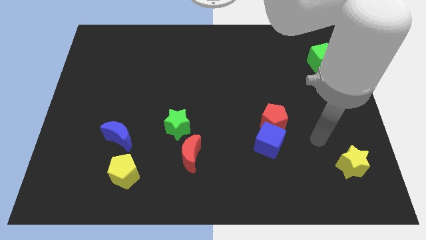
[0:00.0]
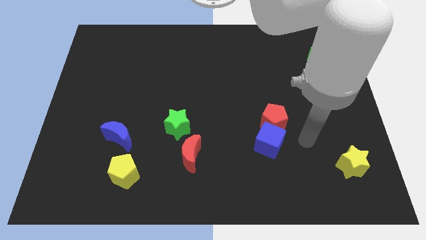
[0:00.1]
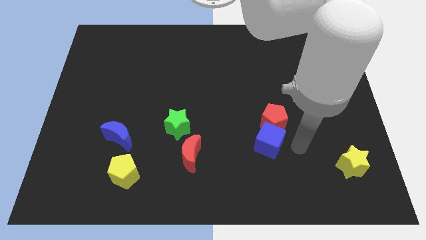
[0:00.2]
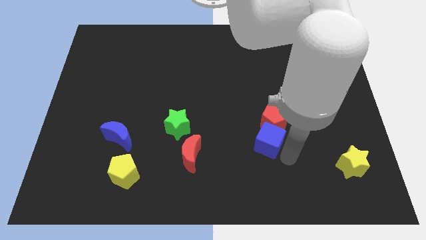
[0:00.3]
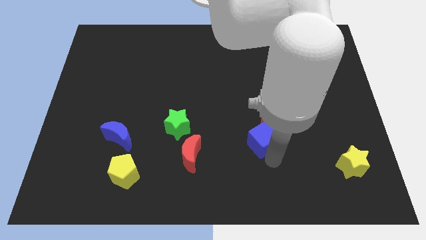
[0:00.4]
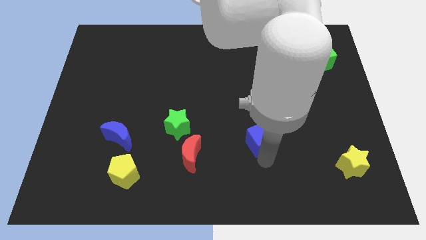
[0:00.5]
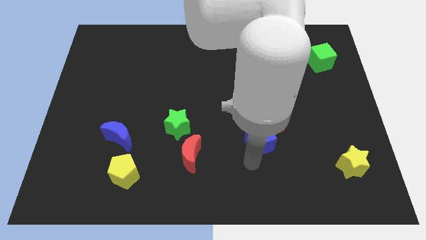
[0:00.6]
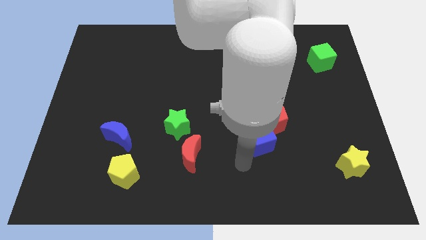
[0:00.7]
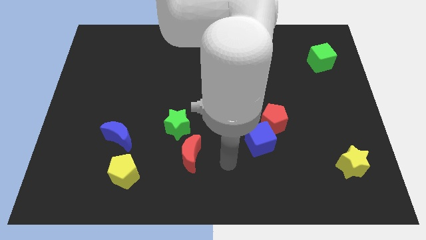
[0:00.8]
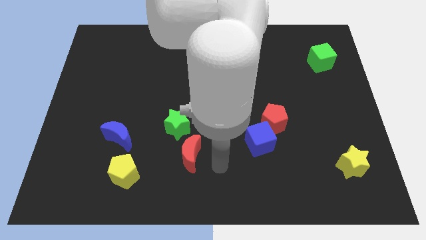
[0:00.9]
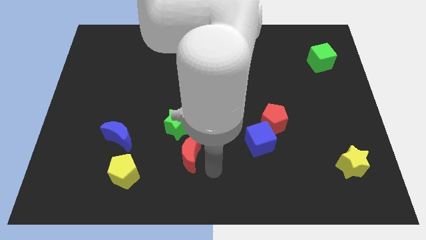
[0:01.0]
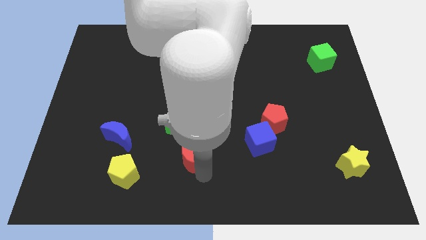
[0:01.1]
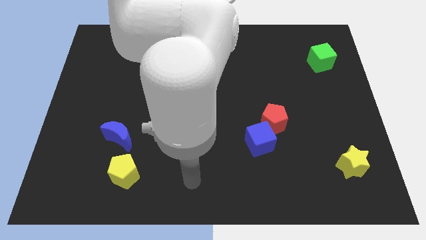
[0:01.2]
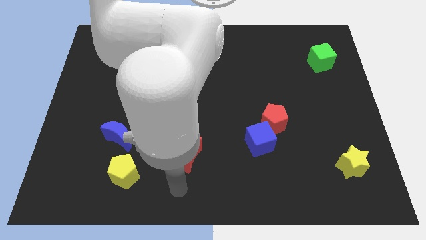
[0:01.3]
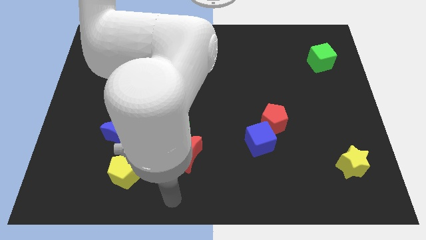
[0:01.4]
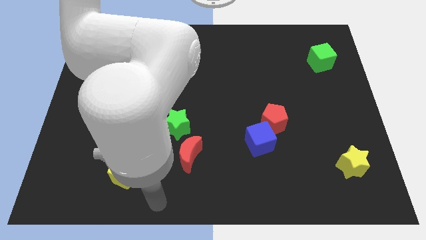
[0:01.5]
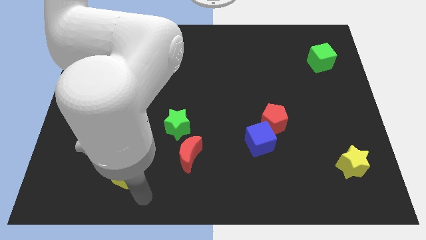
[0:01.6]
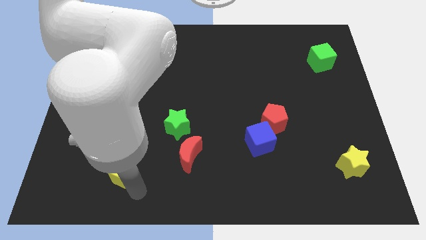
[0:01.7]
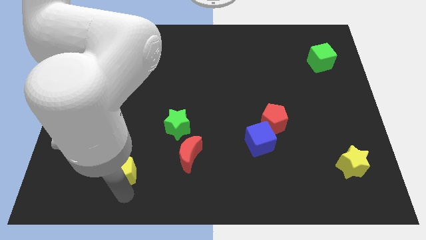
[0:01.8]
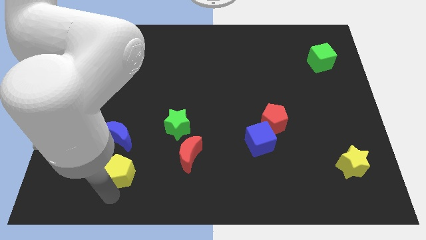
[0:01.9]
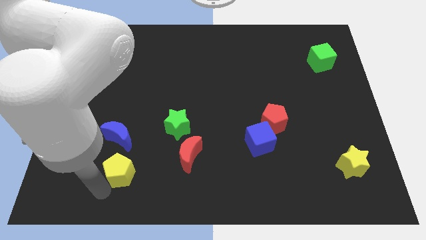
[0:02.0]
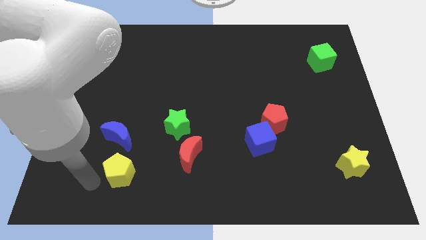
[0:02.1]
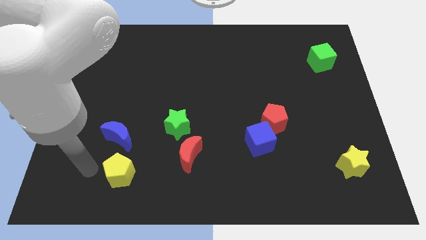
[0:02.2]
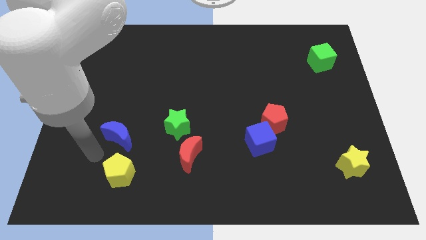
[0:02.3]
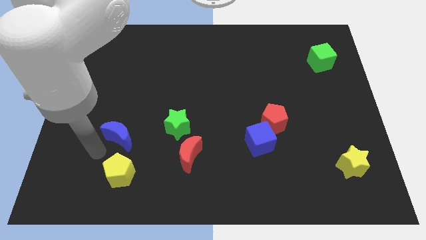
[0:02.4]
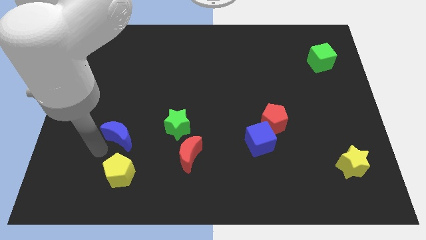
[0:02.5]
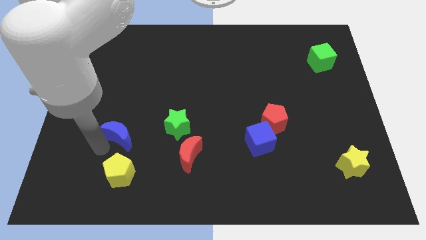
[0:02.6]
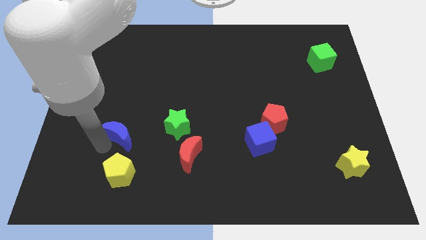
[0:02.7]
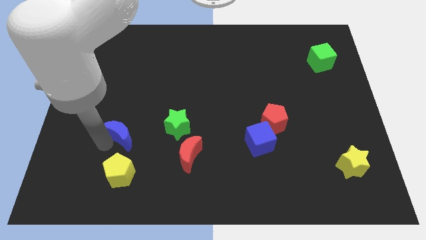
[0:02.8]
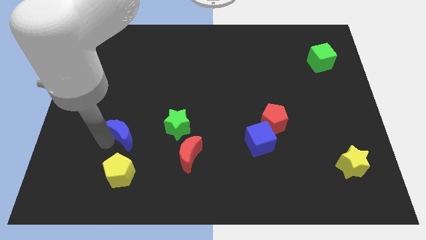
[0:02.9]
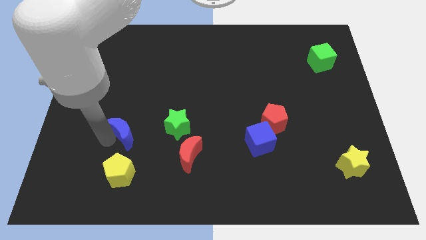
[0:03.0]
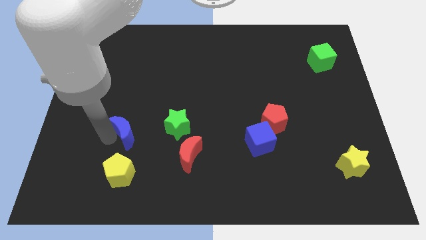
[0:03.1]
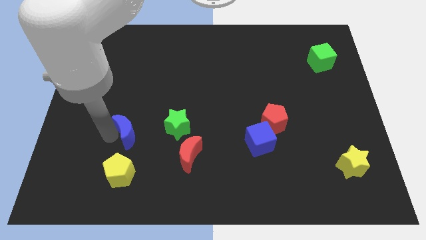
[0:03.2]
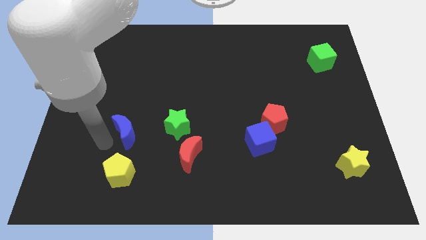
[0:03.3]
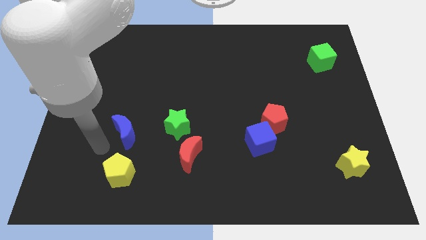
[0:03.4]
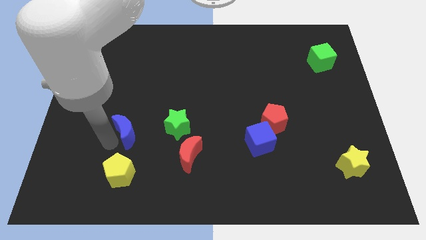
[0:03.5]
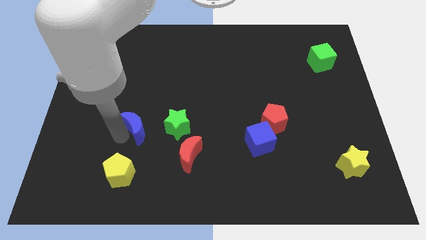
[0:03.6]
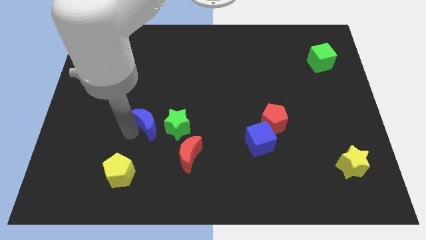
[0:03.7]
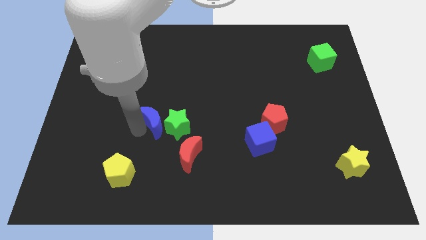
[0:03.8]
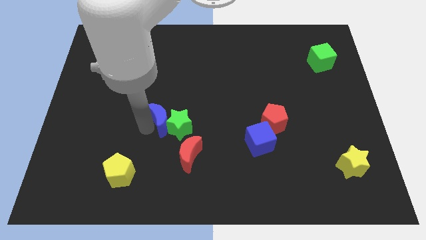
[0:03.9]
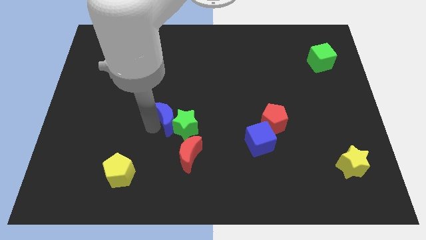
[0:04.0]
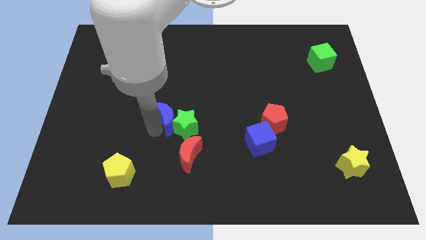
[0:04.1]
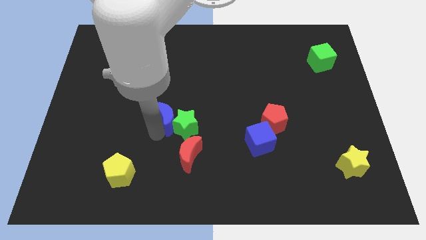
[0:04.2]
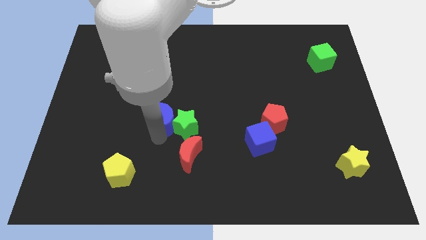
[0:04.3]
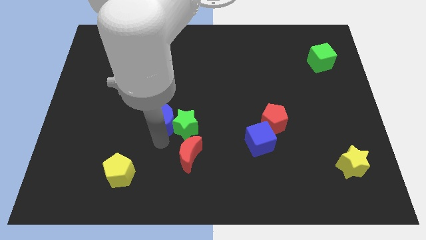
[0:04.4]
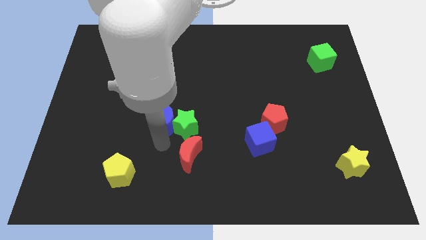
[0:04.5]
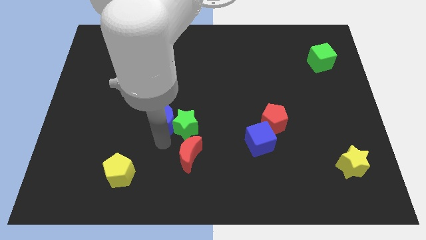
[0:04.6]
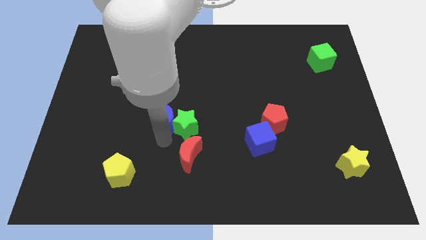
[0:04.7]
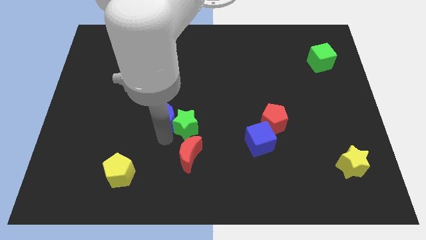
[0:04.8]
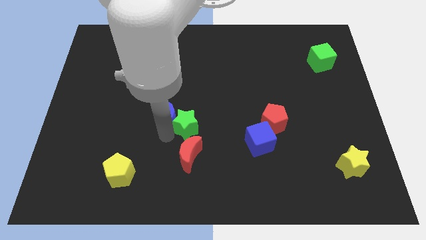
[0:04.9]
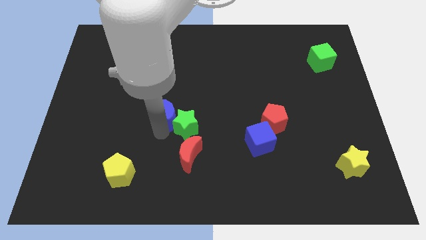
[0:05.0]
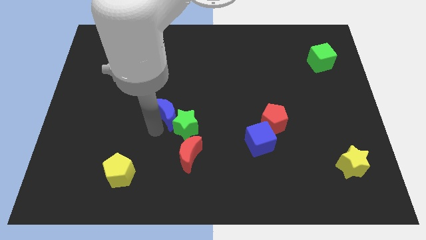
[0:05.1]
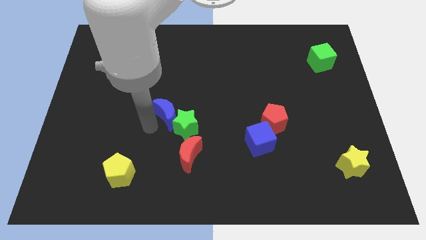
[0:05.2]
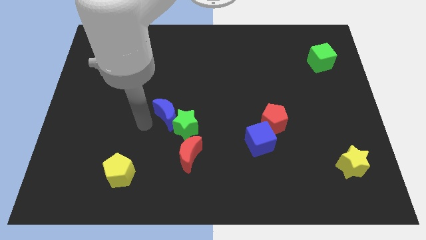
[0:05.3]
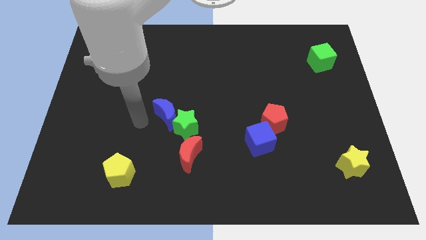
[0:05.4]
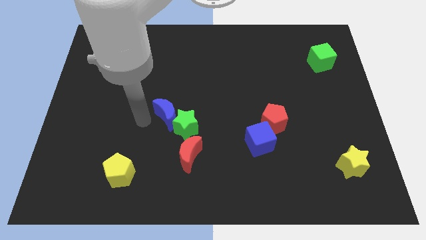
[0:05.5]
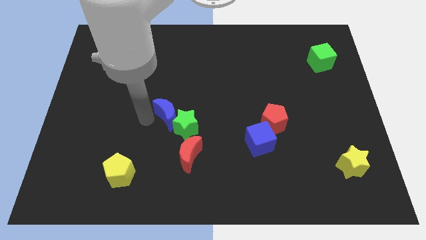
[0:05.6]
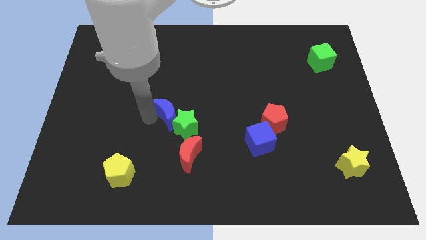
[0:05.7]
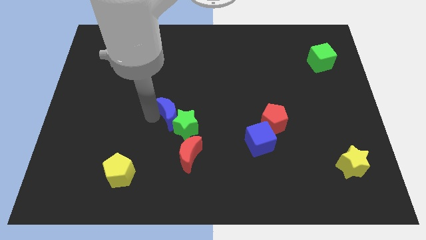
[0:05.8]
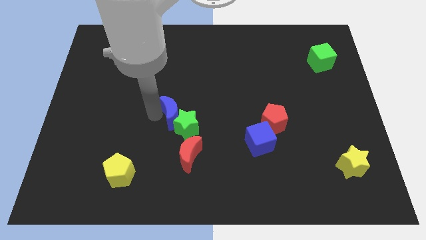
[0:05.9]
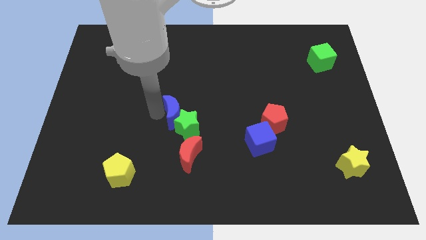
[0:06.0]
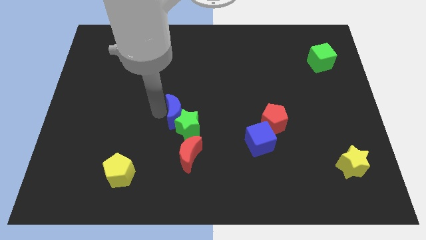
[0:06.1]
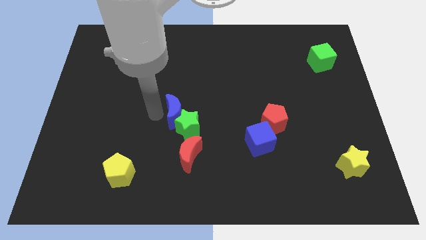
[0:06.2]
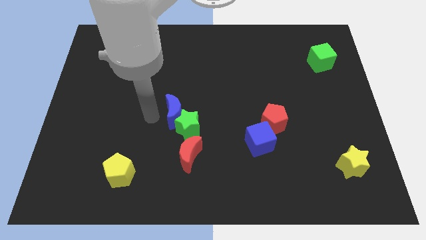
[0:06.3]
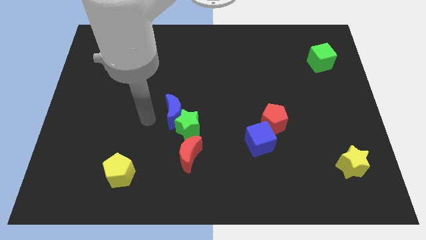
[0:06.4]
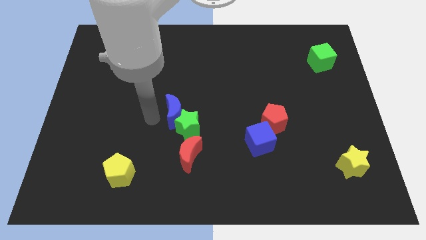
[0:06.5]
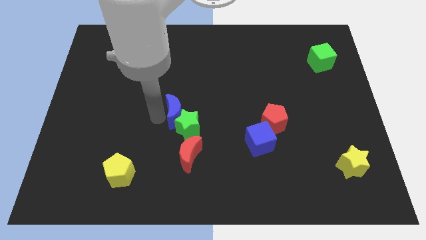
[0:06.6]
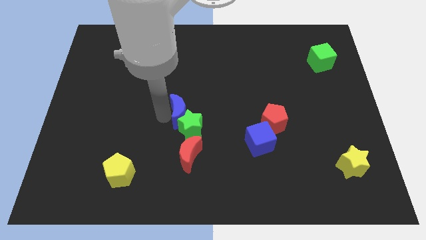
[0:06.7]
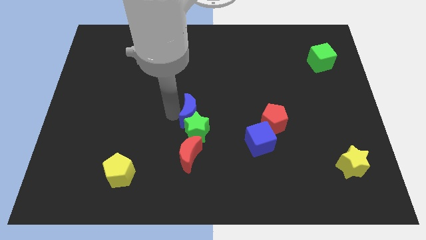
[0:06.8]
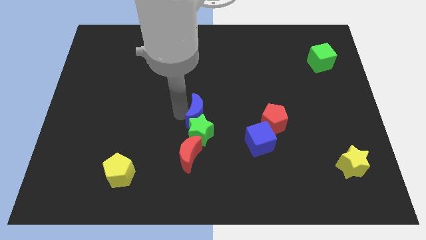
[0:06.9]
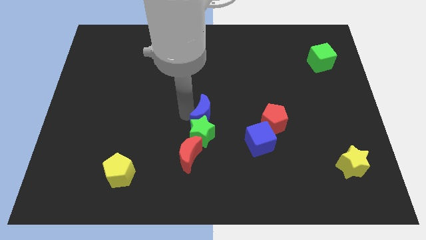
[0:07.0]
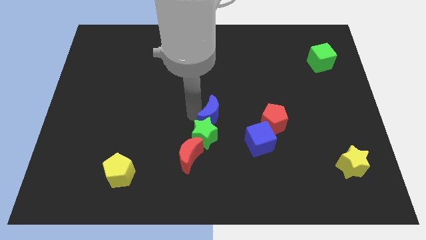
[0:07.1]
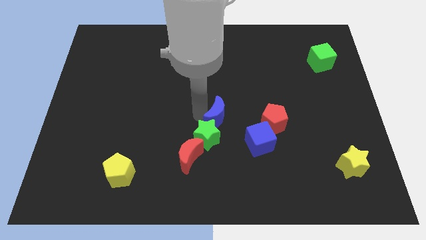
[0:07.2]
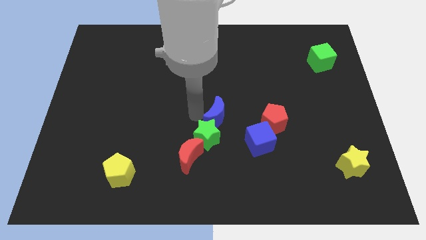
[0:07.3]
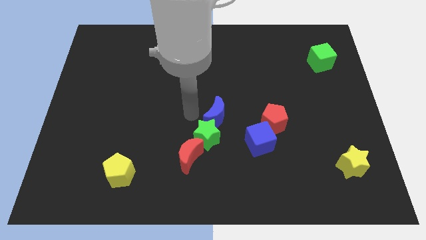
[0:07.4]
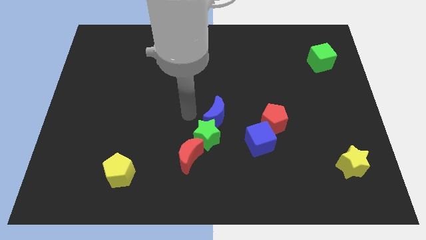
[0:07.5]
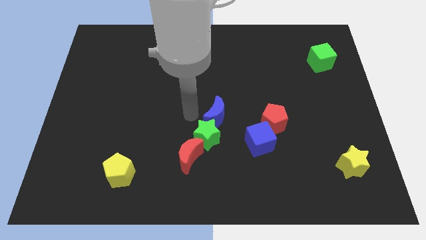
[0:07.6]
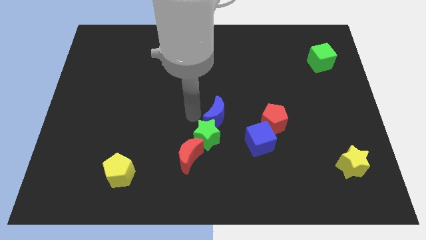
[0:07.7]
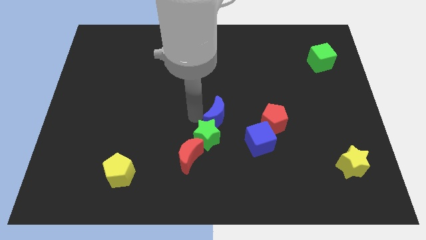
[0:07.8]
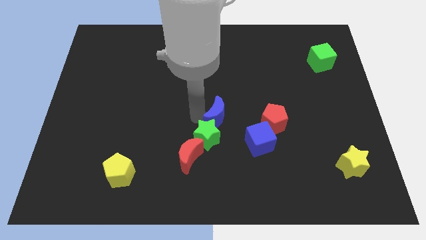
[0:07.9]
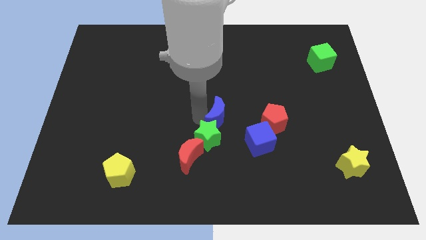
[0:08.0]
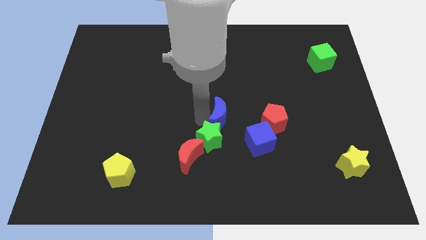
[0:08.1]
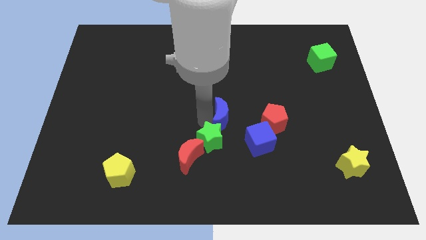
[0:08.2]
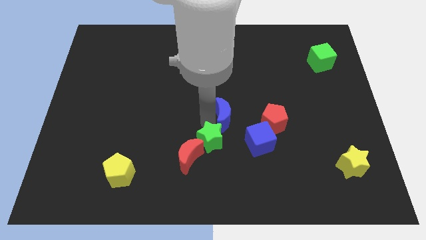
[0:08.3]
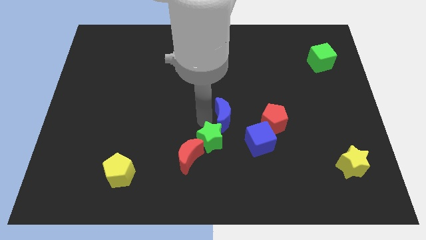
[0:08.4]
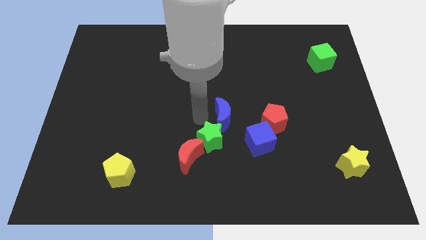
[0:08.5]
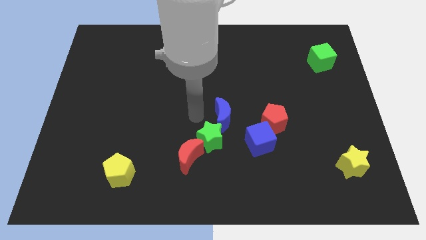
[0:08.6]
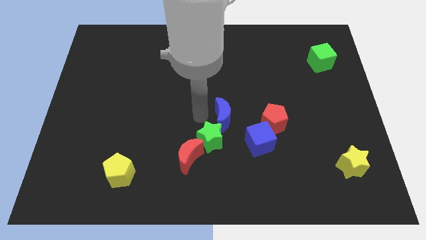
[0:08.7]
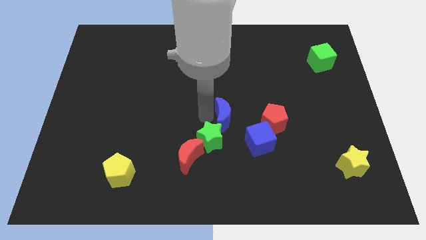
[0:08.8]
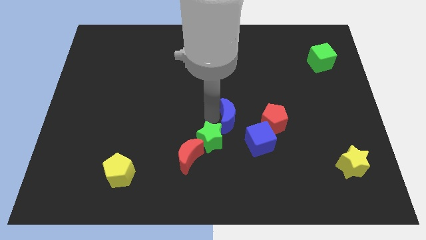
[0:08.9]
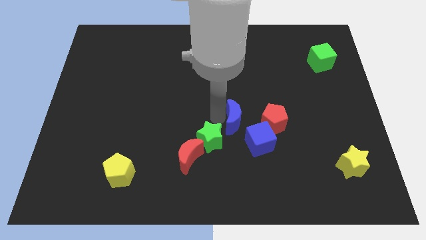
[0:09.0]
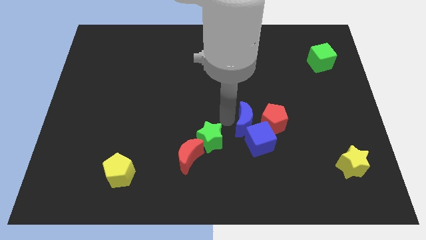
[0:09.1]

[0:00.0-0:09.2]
slide the blue moon to the red pentagon
